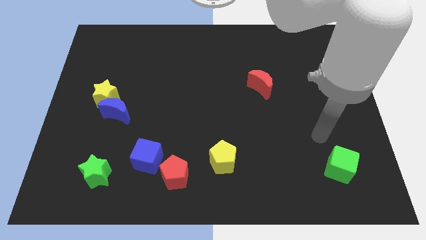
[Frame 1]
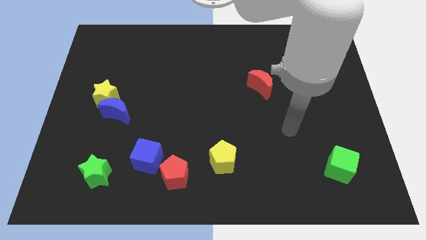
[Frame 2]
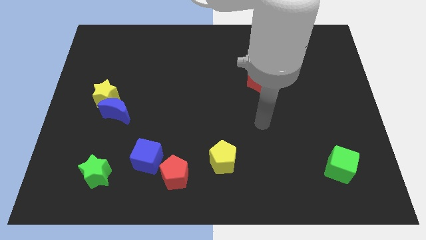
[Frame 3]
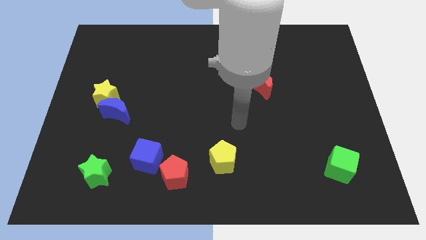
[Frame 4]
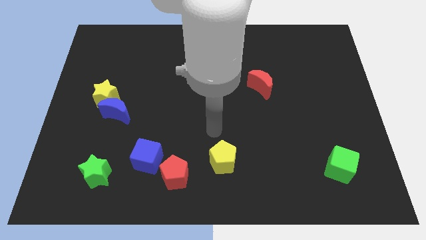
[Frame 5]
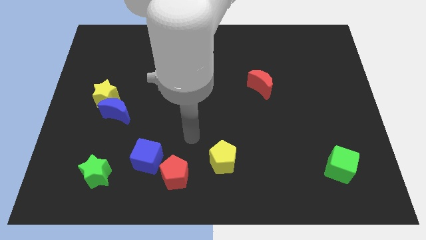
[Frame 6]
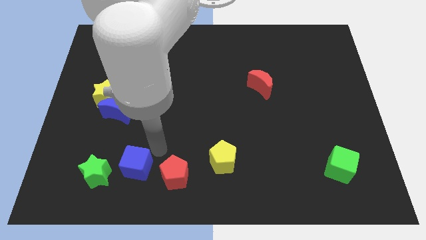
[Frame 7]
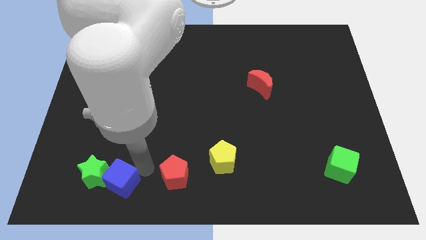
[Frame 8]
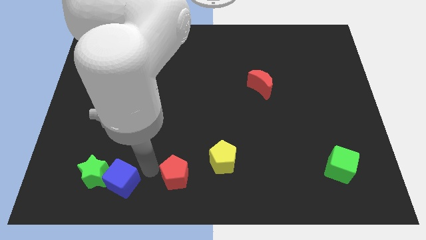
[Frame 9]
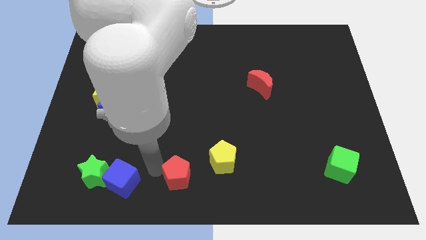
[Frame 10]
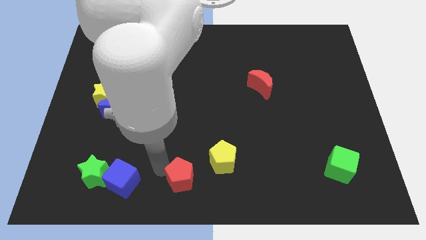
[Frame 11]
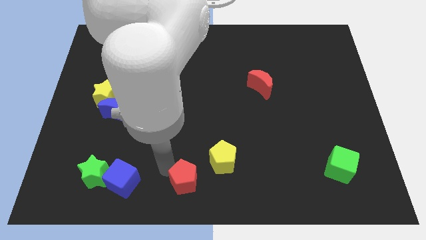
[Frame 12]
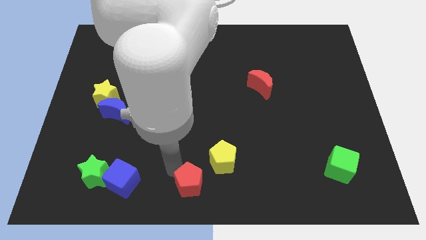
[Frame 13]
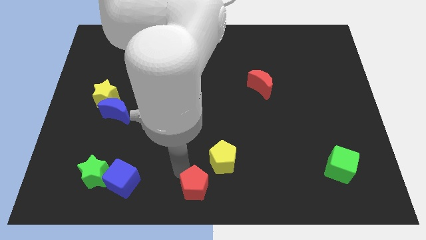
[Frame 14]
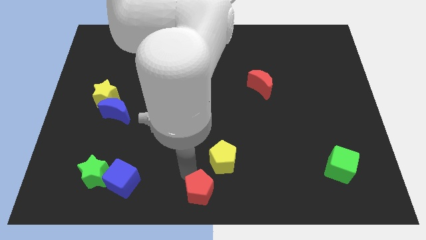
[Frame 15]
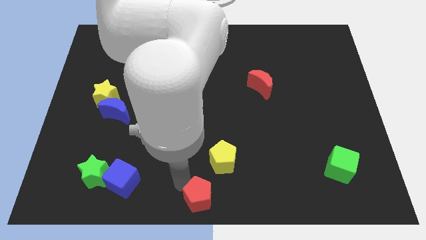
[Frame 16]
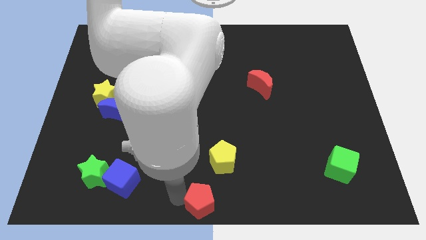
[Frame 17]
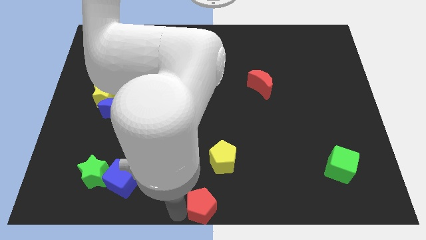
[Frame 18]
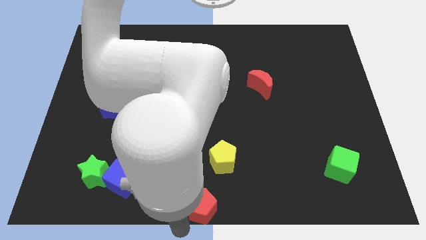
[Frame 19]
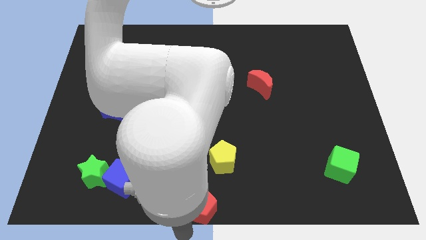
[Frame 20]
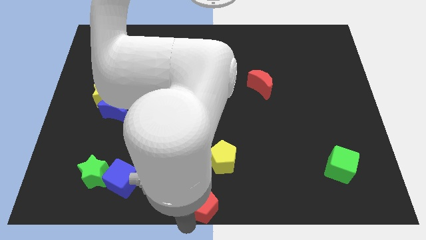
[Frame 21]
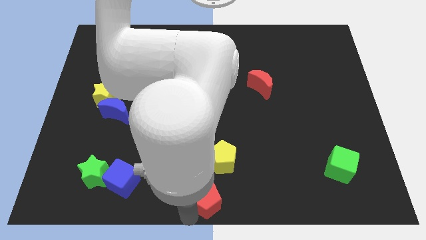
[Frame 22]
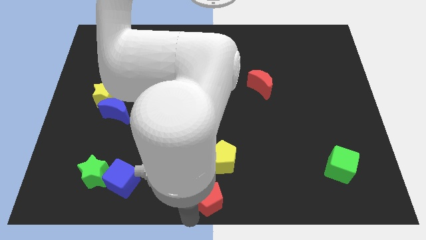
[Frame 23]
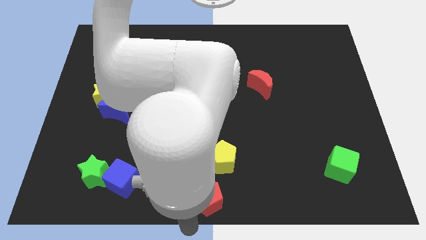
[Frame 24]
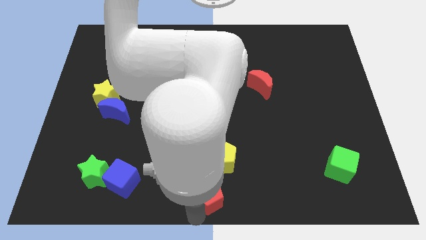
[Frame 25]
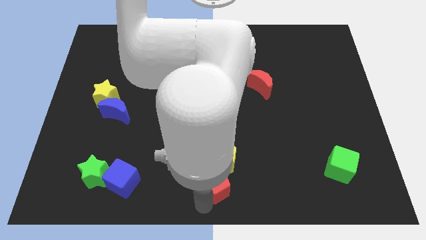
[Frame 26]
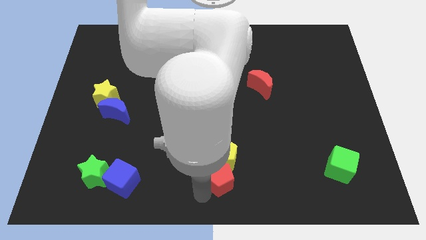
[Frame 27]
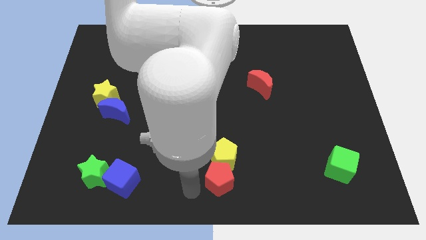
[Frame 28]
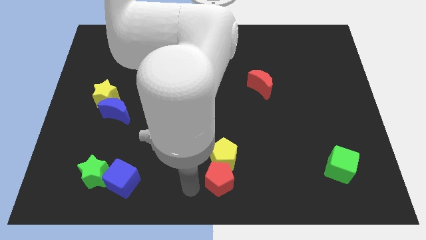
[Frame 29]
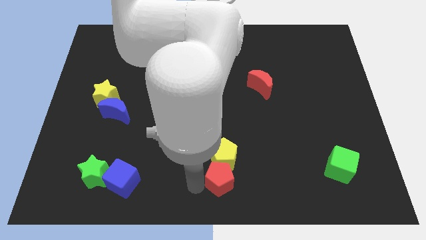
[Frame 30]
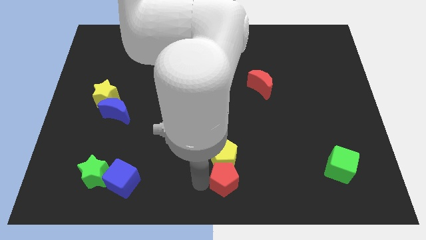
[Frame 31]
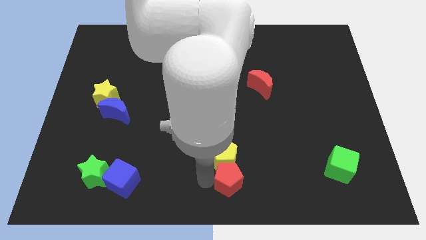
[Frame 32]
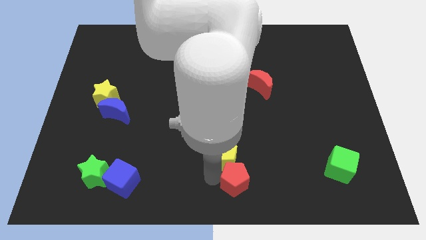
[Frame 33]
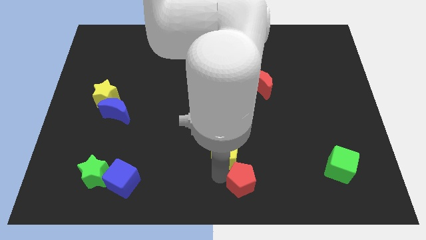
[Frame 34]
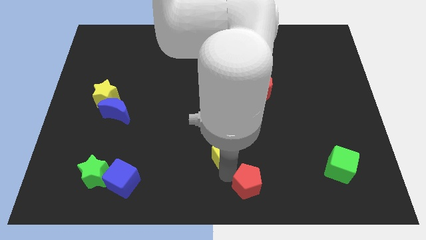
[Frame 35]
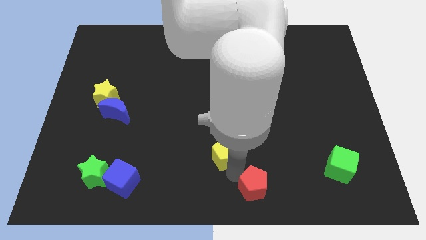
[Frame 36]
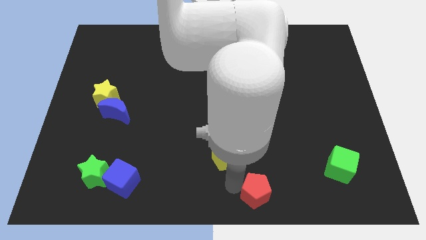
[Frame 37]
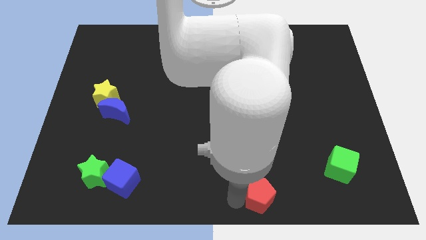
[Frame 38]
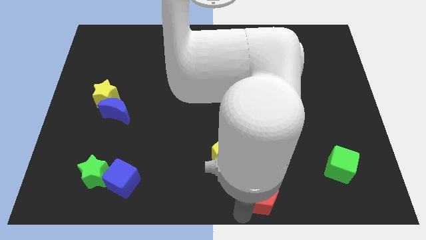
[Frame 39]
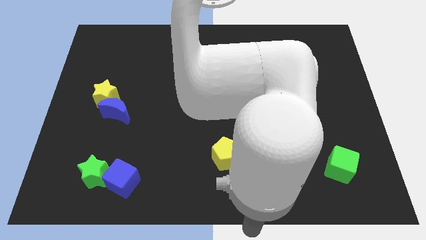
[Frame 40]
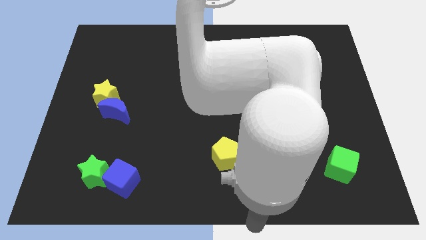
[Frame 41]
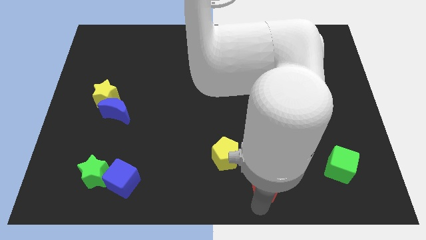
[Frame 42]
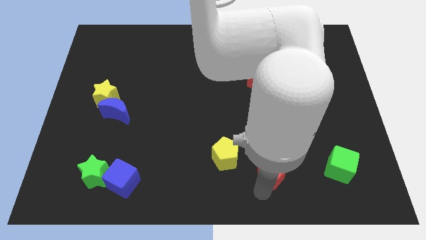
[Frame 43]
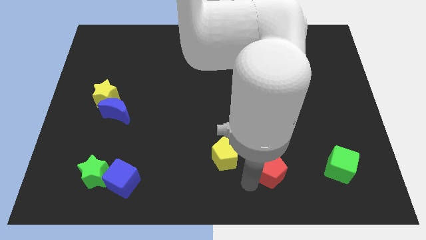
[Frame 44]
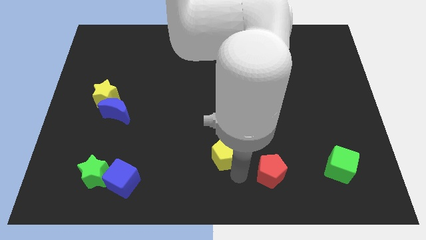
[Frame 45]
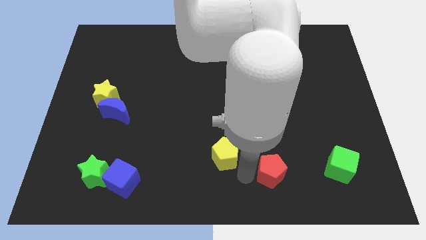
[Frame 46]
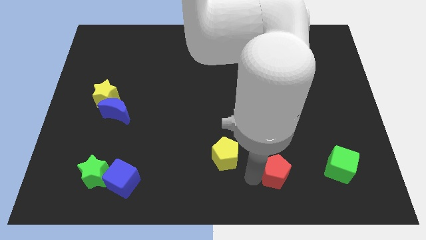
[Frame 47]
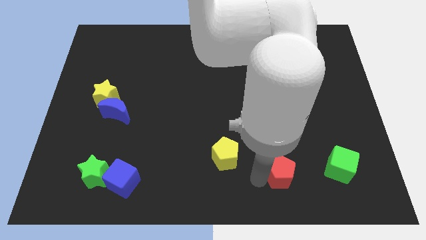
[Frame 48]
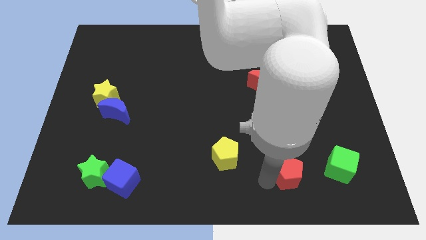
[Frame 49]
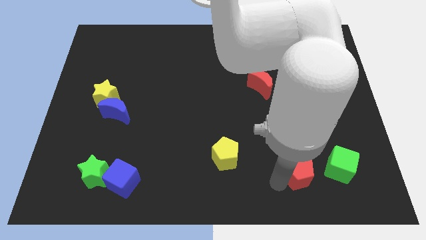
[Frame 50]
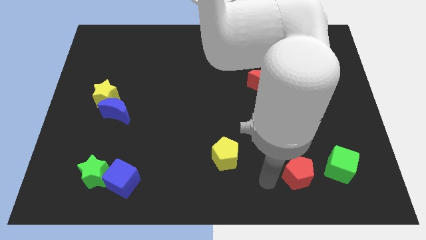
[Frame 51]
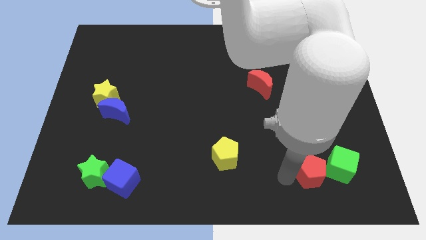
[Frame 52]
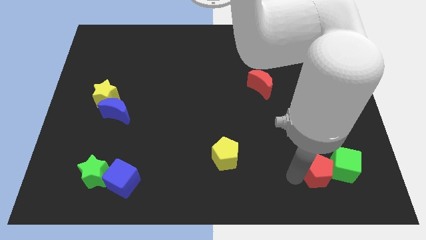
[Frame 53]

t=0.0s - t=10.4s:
put the red pentagon close to the green cube

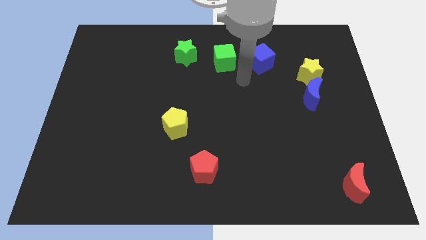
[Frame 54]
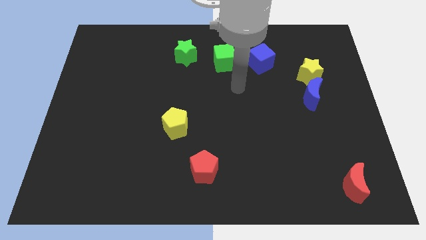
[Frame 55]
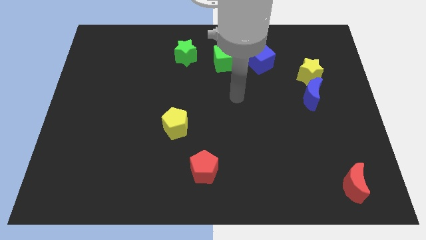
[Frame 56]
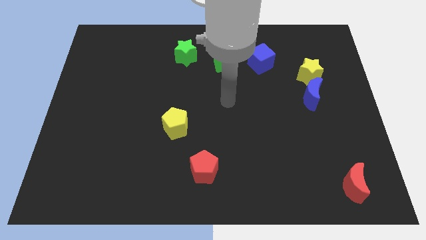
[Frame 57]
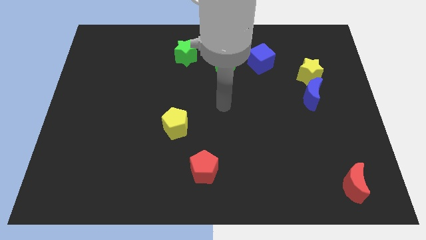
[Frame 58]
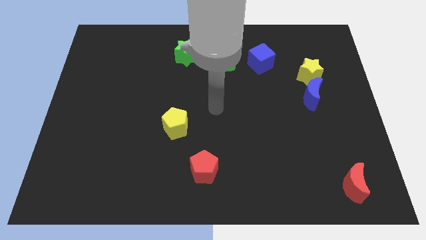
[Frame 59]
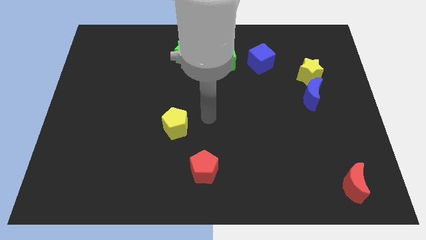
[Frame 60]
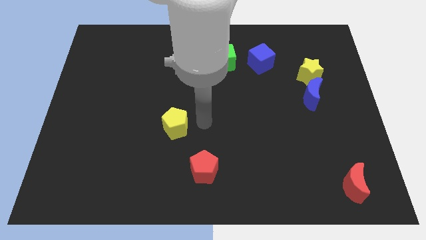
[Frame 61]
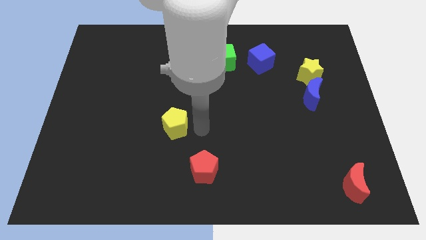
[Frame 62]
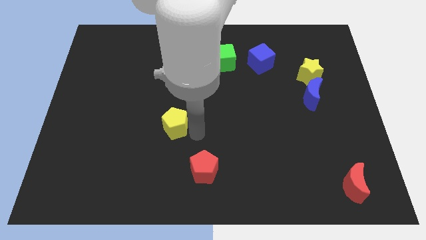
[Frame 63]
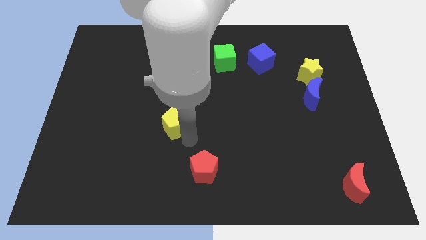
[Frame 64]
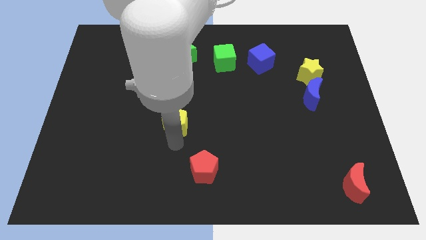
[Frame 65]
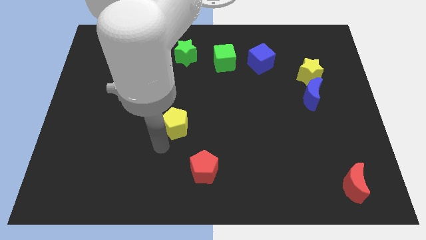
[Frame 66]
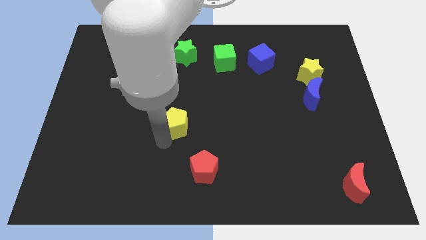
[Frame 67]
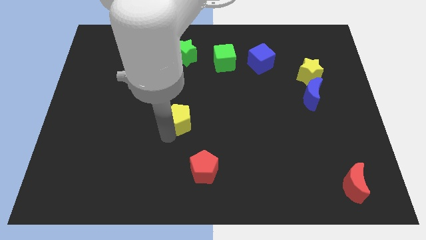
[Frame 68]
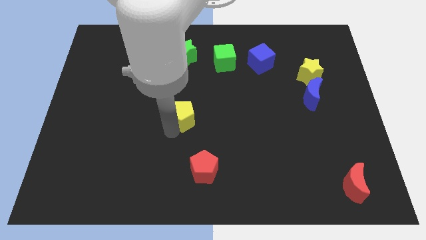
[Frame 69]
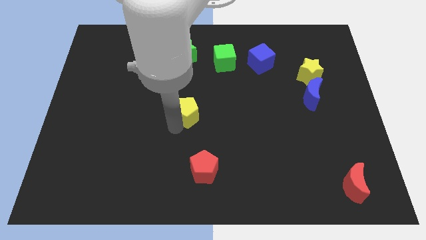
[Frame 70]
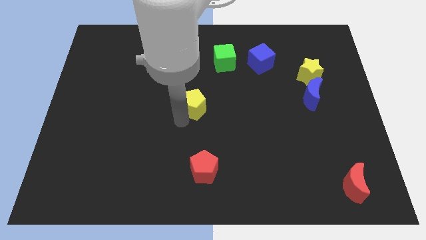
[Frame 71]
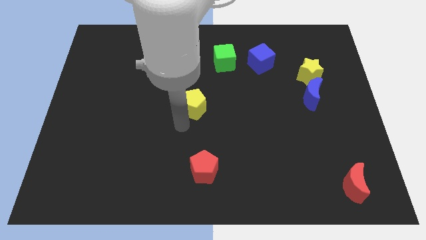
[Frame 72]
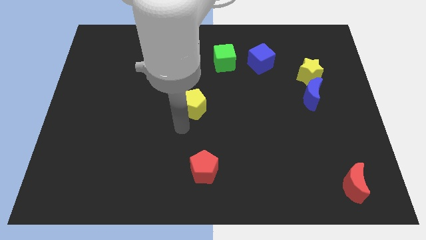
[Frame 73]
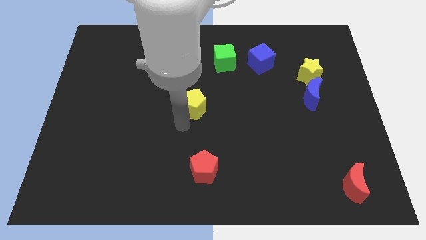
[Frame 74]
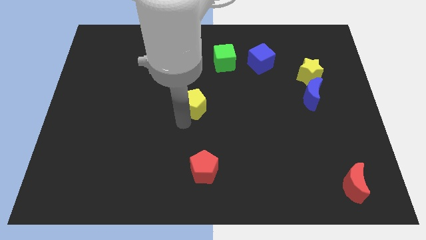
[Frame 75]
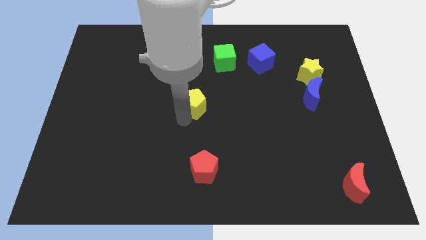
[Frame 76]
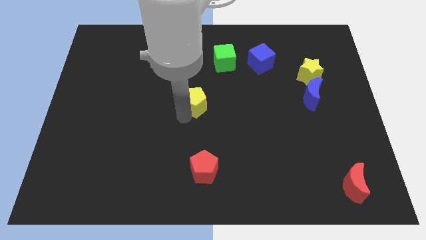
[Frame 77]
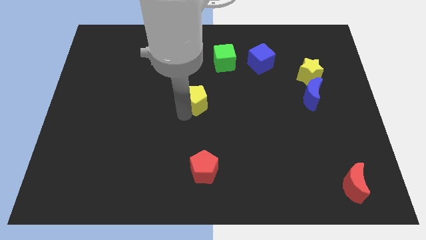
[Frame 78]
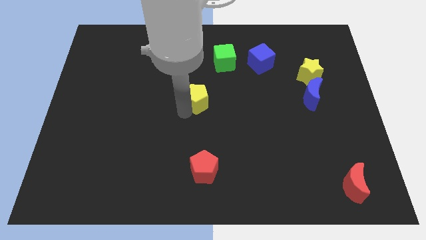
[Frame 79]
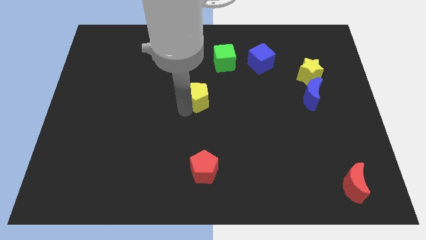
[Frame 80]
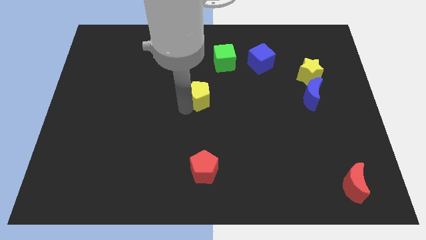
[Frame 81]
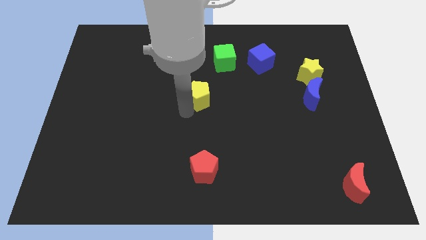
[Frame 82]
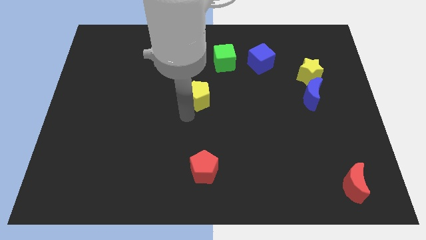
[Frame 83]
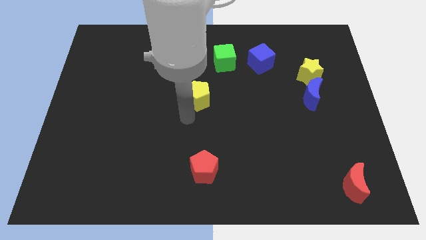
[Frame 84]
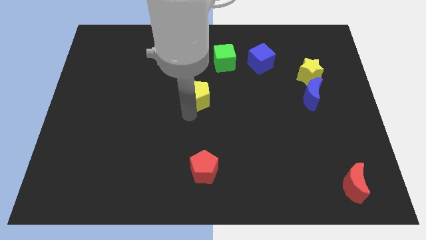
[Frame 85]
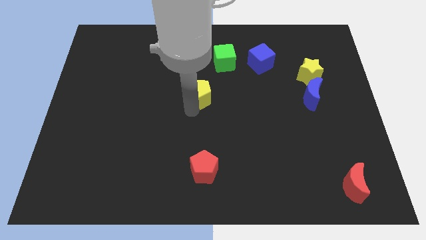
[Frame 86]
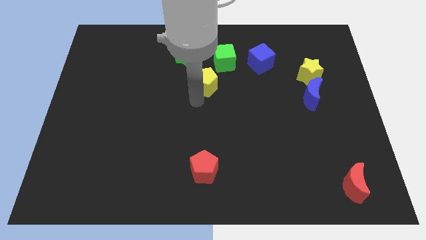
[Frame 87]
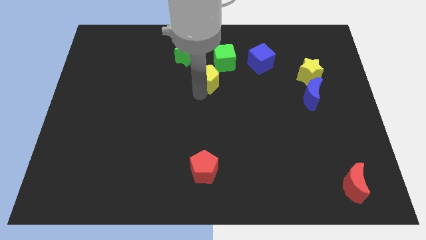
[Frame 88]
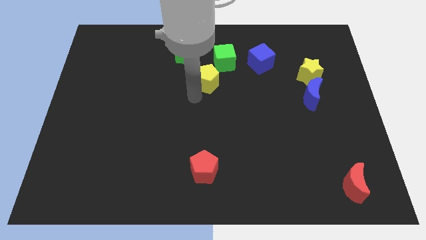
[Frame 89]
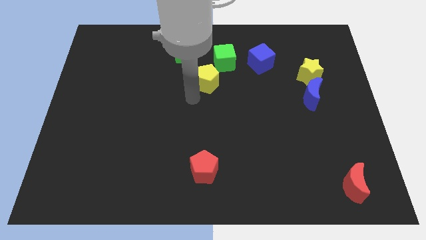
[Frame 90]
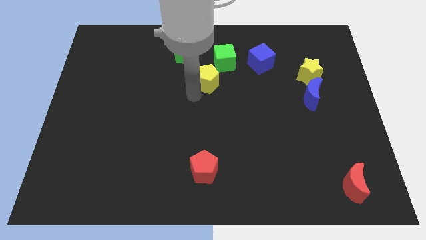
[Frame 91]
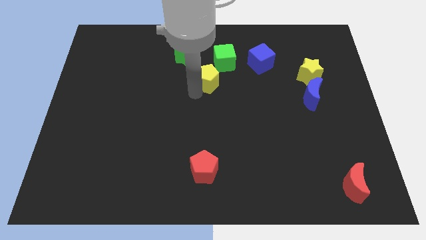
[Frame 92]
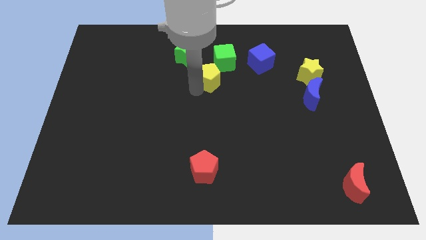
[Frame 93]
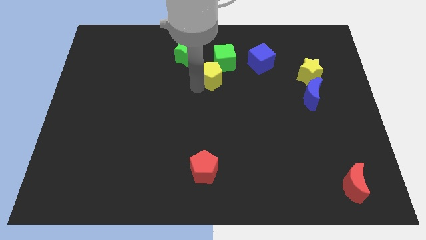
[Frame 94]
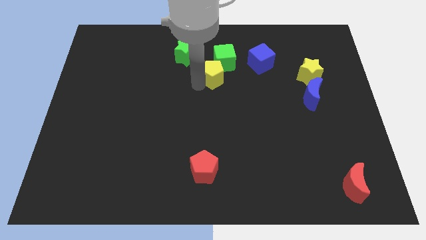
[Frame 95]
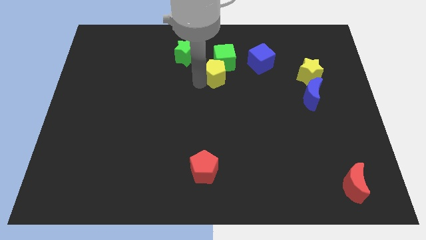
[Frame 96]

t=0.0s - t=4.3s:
slide the yellow pentagon close to the green cube
